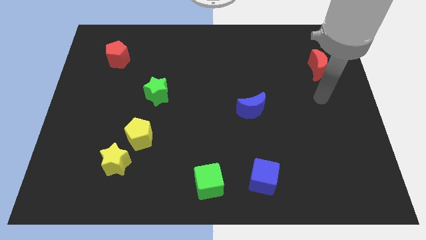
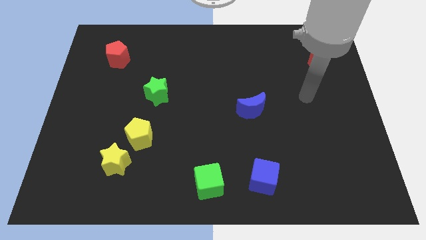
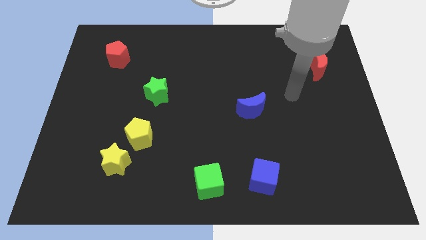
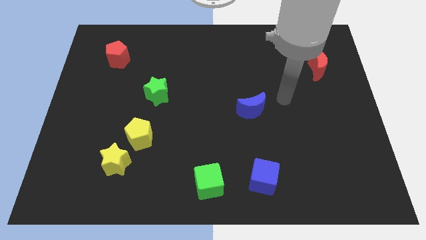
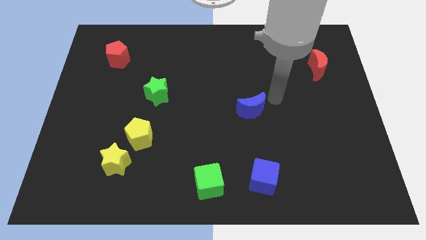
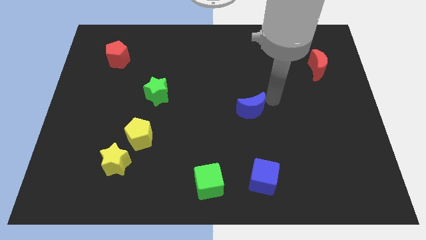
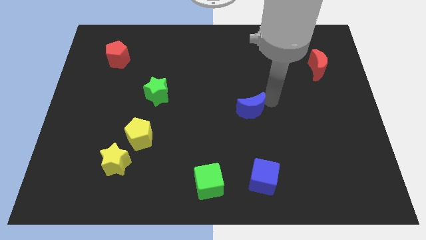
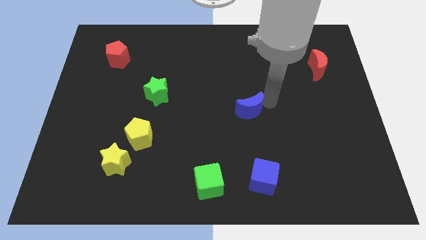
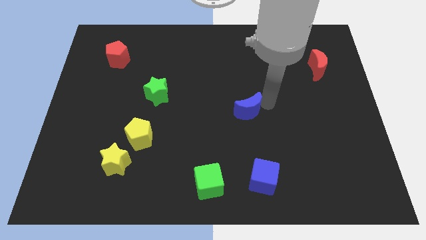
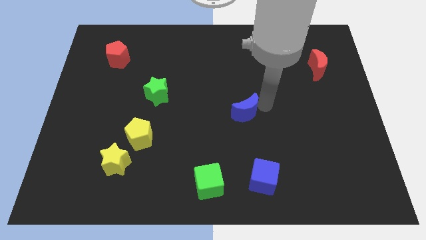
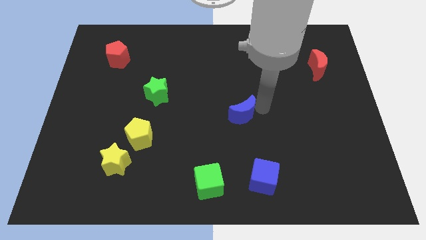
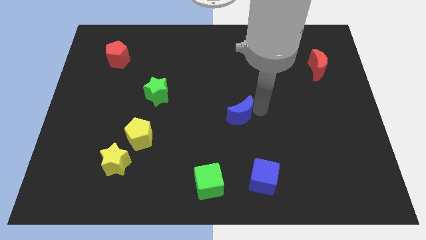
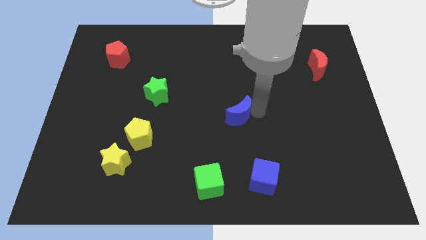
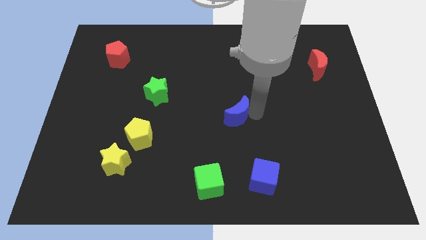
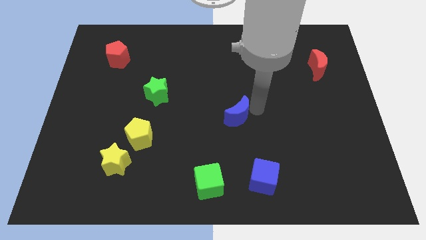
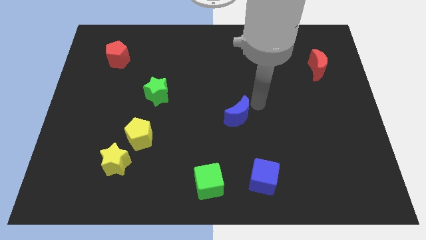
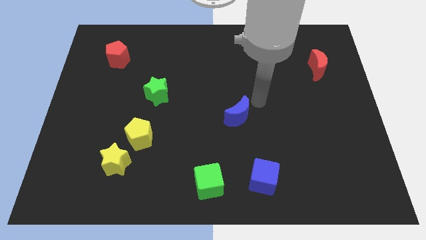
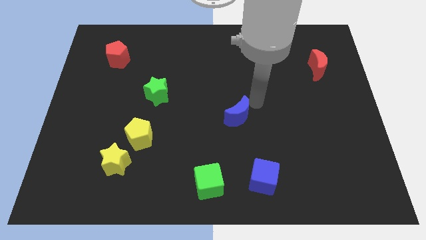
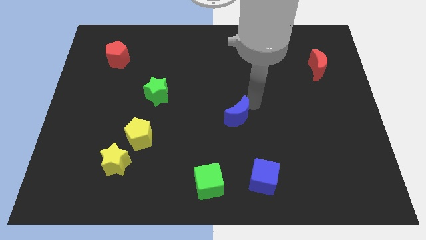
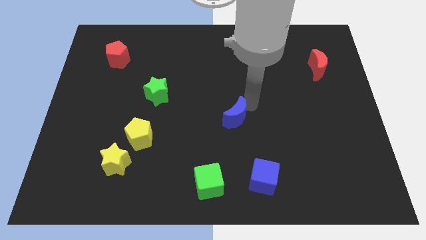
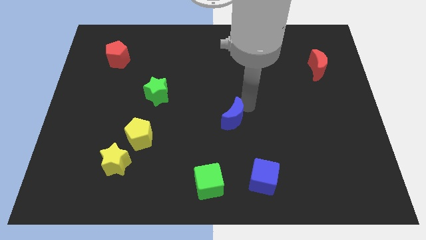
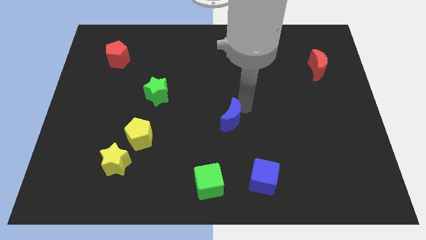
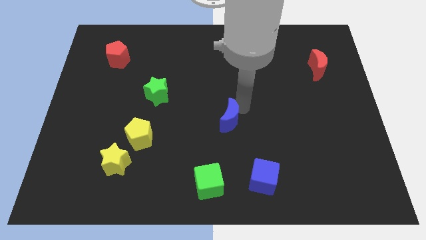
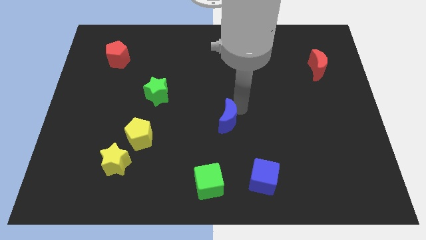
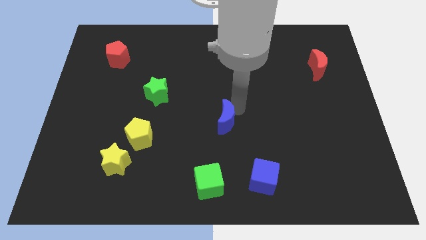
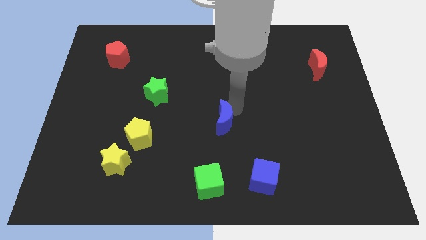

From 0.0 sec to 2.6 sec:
move the blue moon a bit down and left

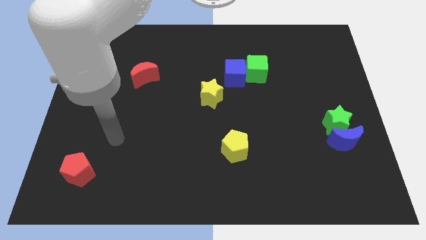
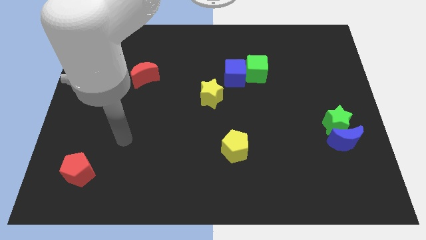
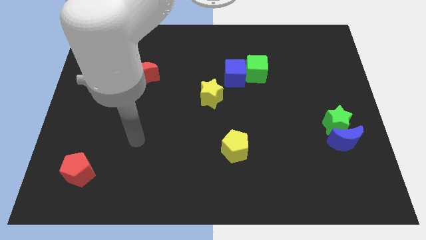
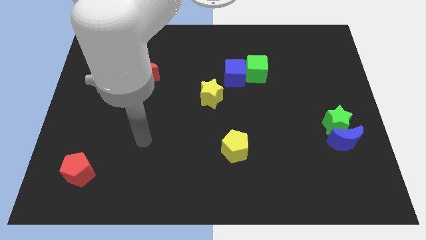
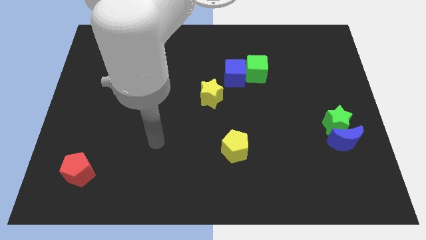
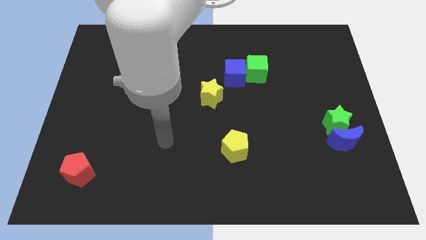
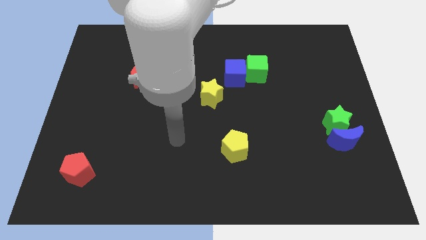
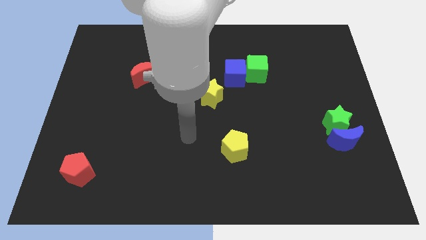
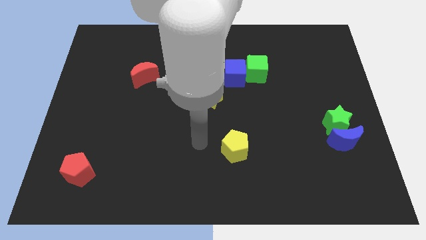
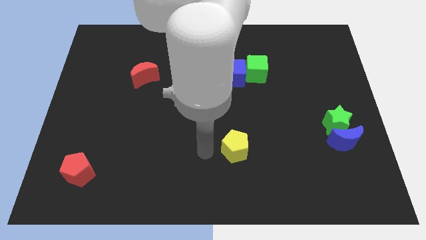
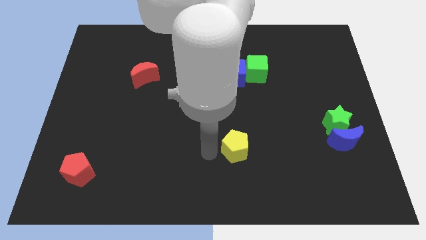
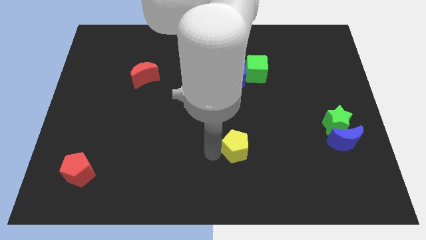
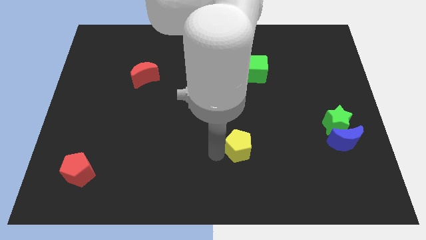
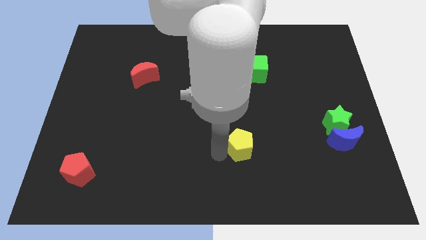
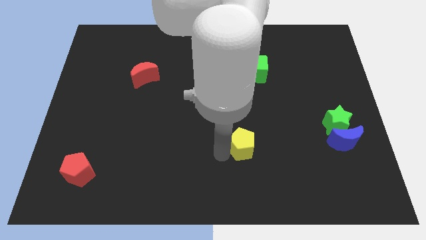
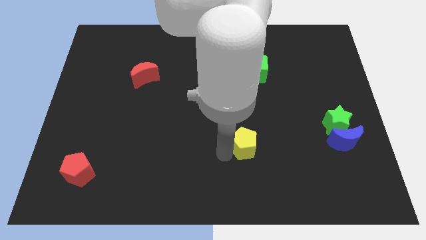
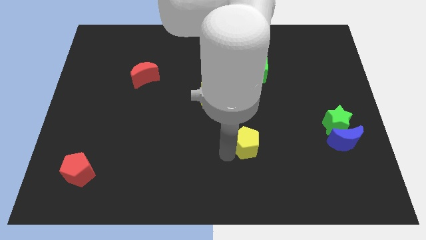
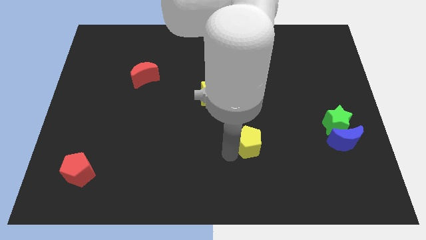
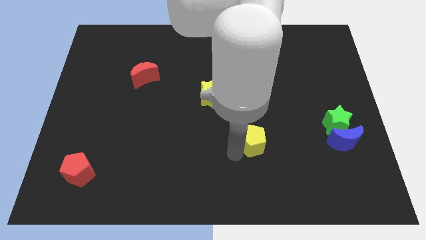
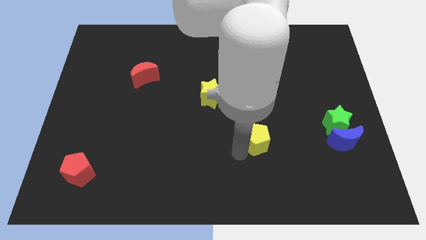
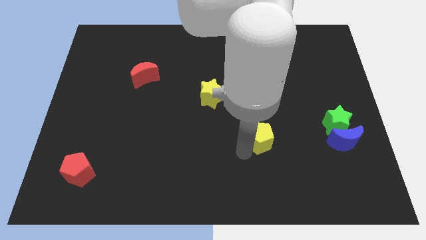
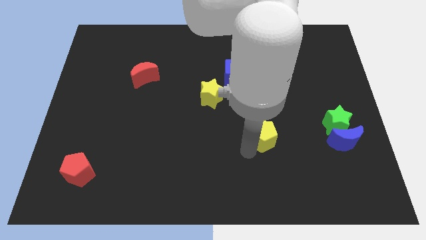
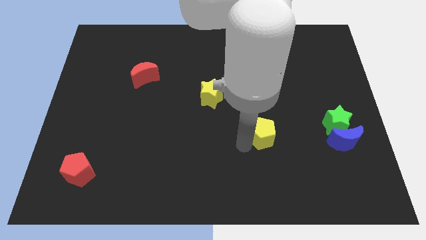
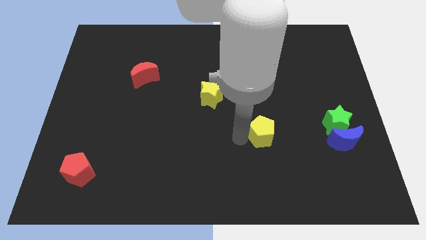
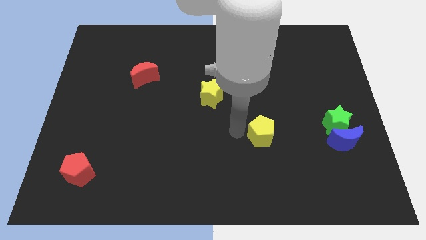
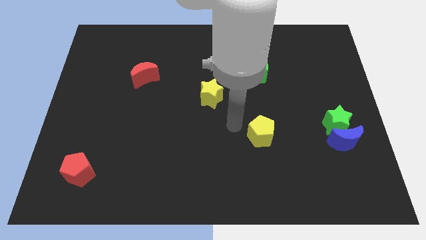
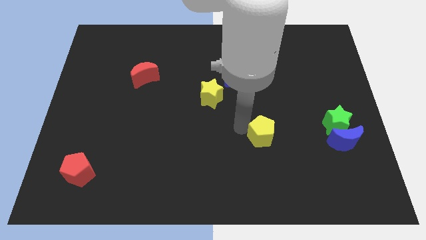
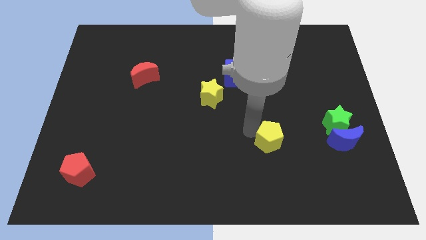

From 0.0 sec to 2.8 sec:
push the yellow pentagon a little bit to the right

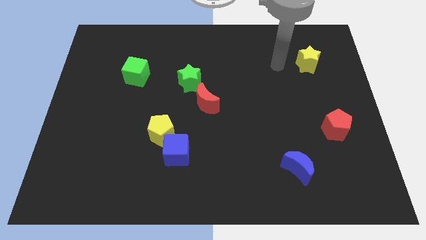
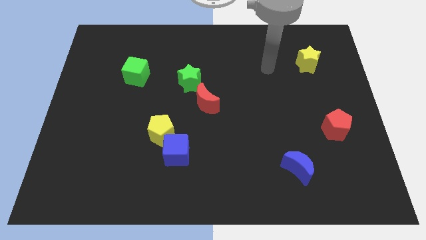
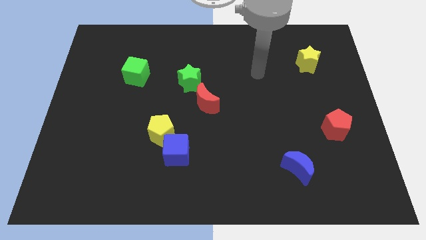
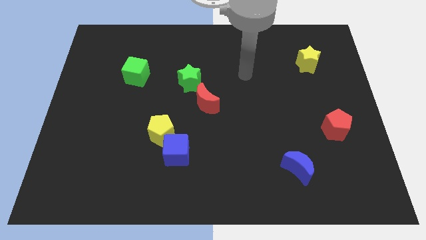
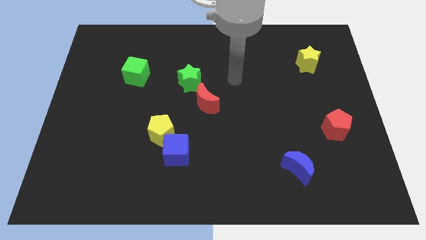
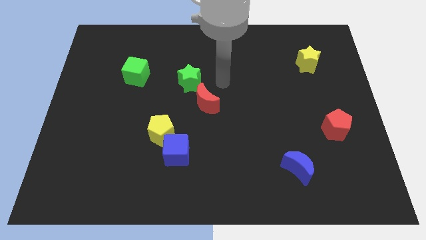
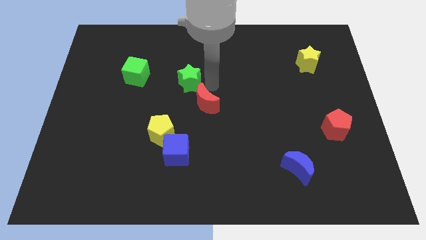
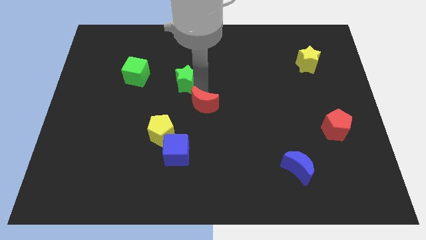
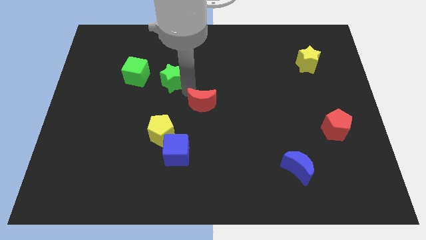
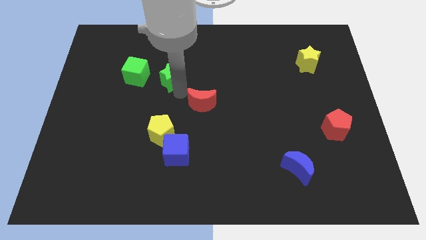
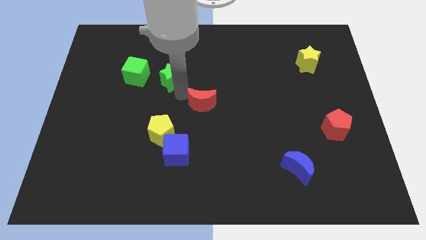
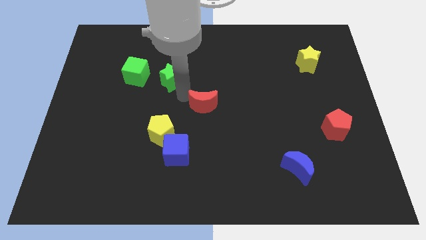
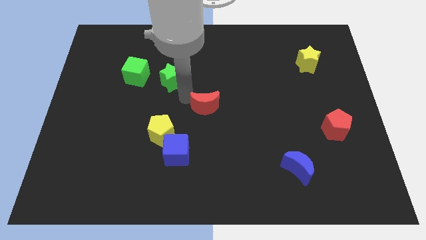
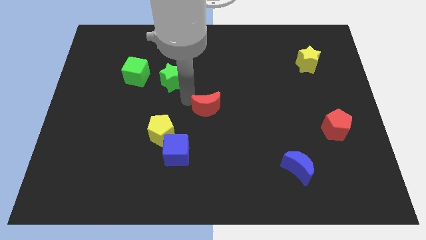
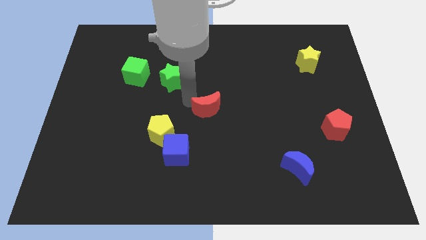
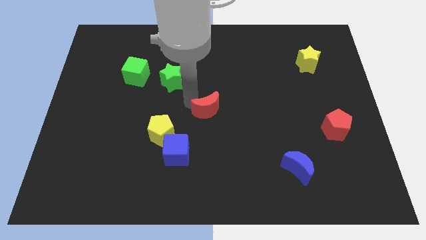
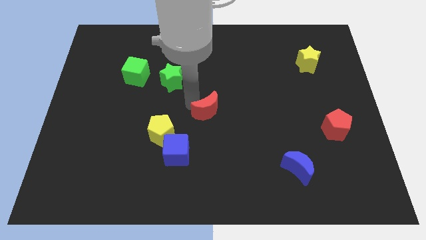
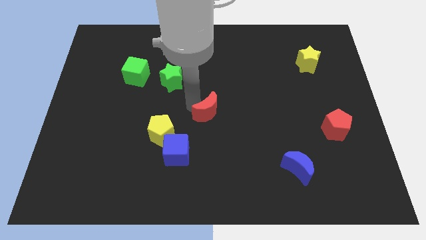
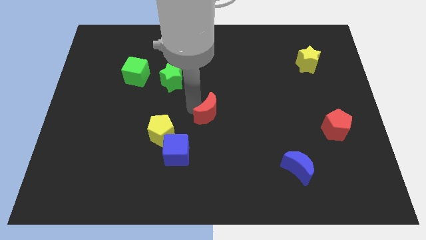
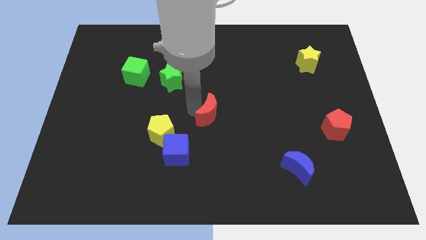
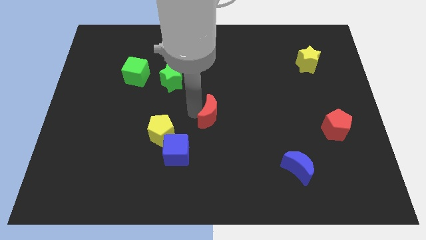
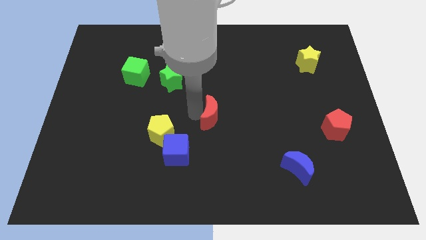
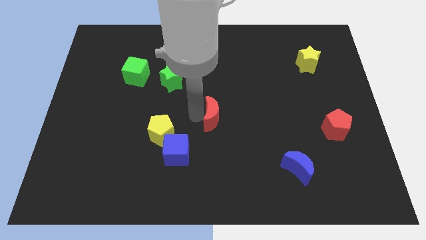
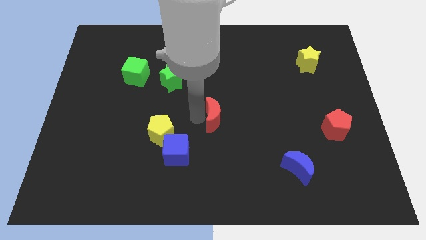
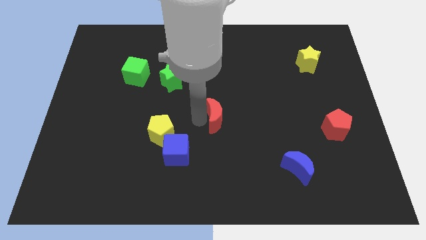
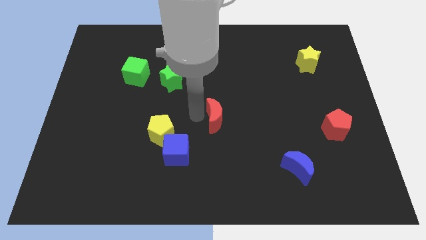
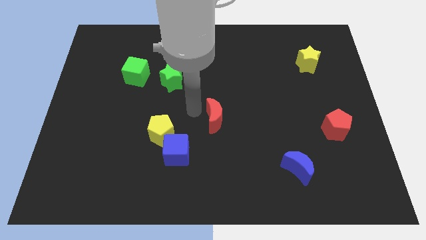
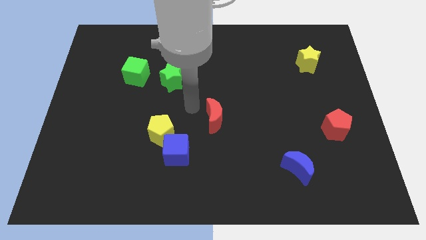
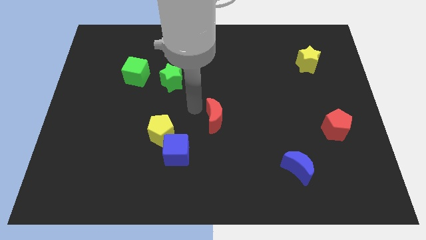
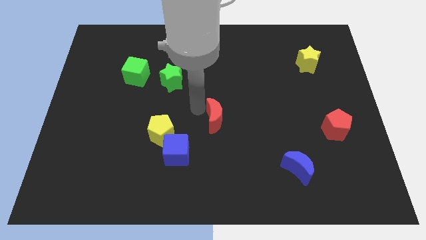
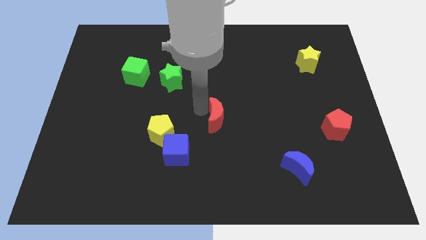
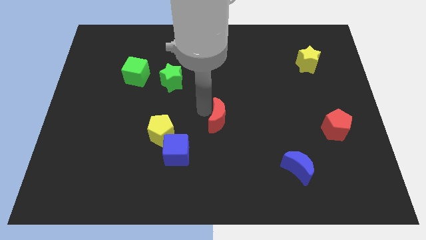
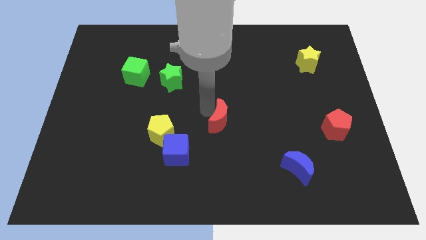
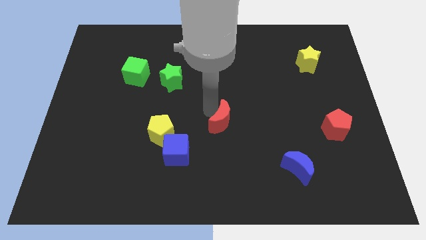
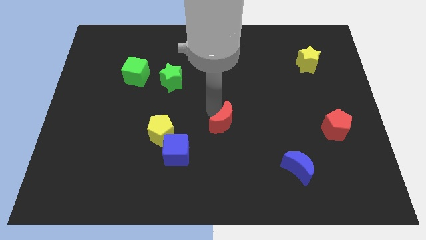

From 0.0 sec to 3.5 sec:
push the red moon downwards and to the right a little bit
